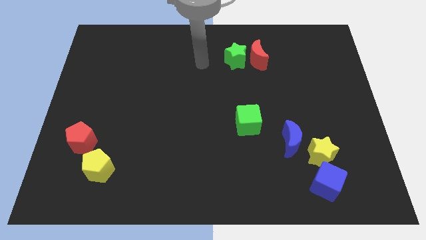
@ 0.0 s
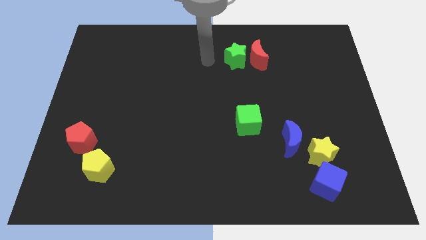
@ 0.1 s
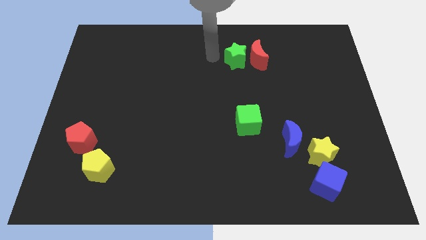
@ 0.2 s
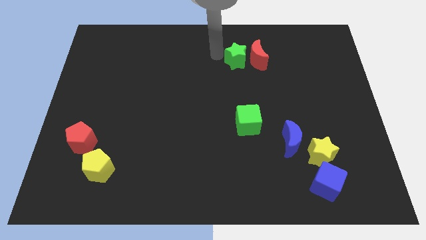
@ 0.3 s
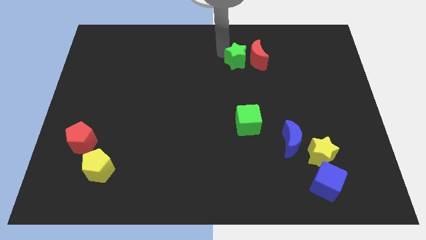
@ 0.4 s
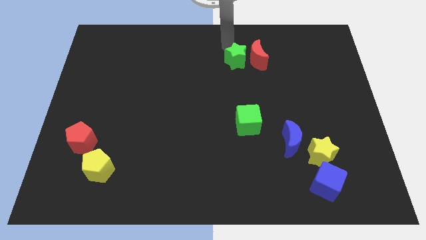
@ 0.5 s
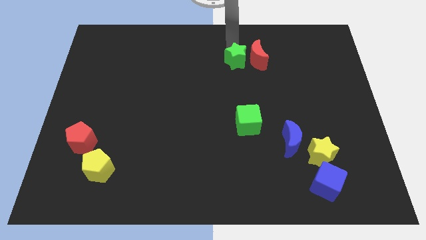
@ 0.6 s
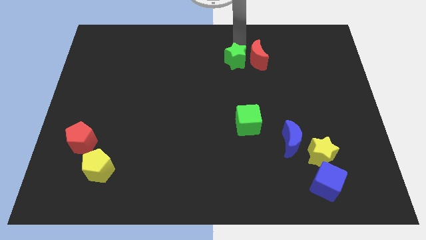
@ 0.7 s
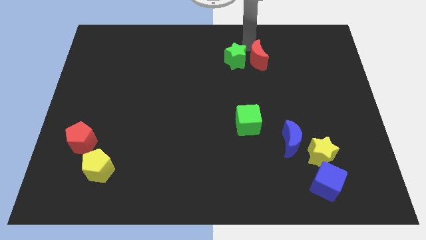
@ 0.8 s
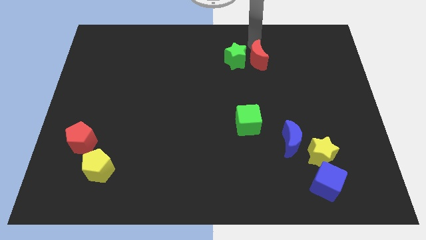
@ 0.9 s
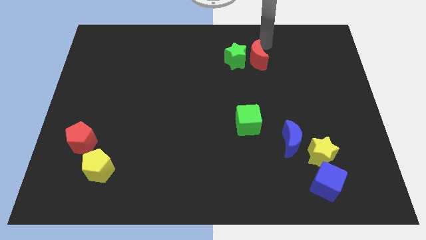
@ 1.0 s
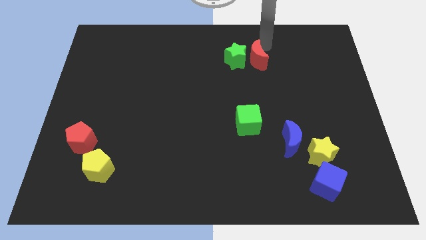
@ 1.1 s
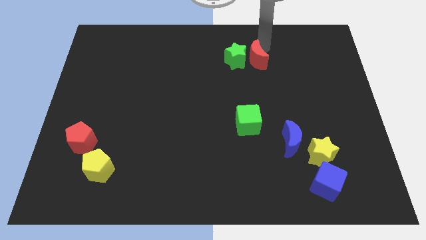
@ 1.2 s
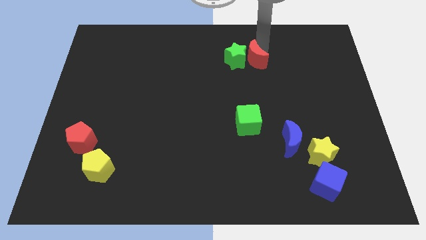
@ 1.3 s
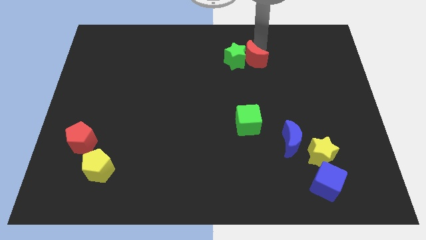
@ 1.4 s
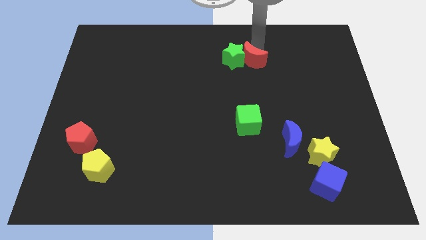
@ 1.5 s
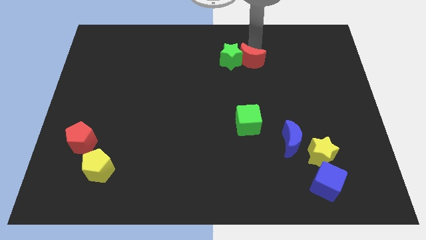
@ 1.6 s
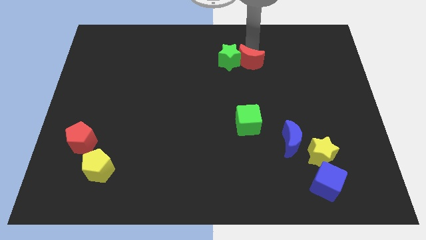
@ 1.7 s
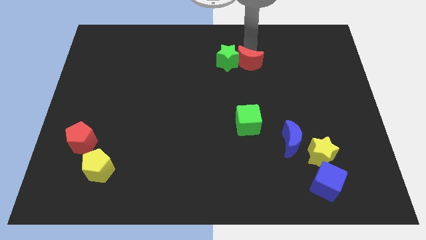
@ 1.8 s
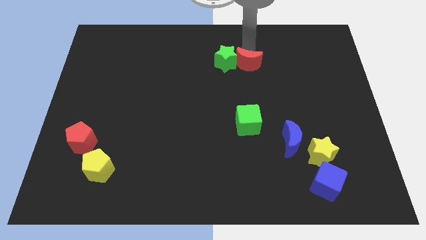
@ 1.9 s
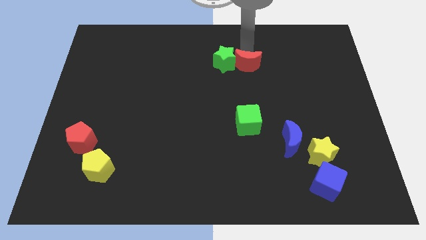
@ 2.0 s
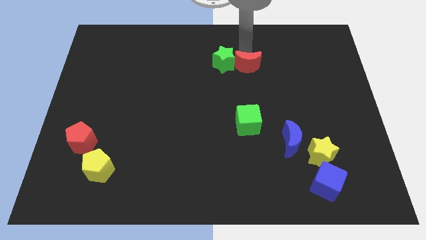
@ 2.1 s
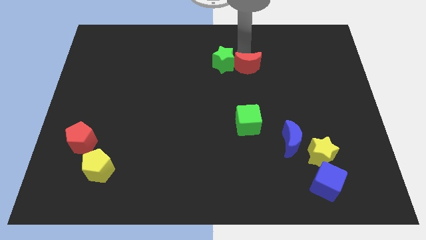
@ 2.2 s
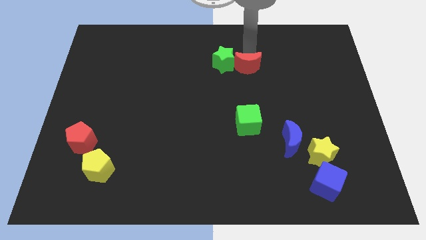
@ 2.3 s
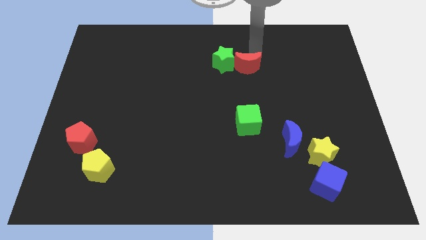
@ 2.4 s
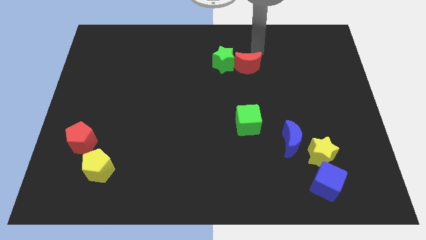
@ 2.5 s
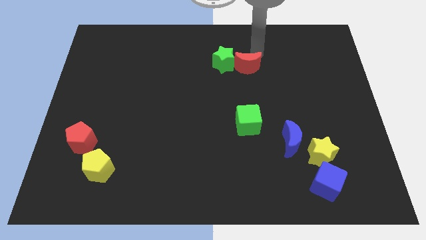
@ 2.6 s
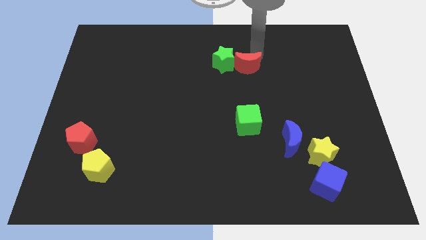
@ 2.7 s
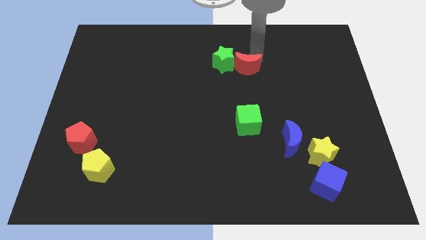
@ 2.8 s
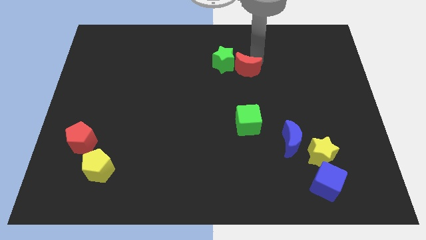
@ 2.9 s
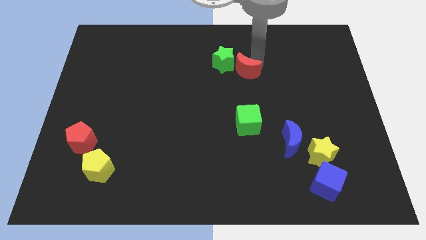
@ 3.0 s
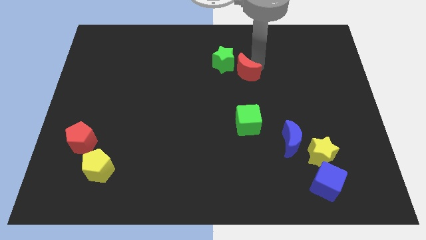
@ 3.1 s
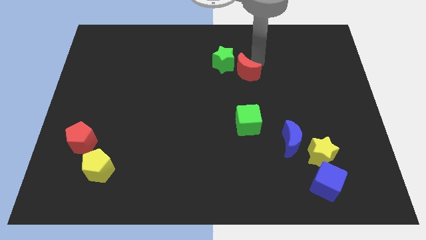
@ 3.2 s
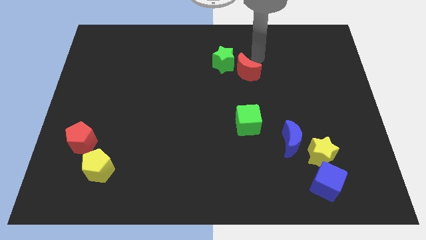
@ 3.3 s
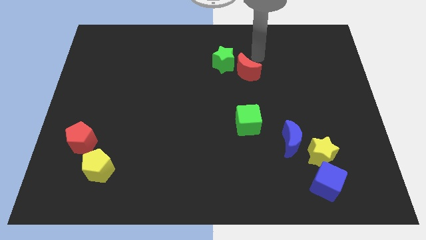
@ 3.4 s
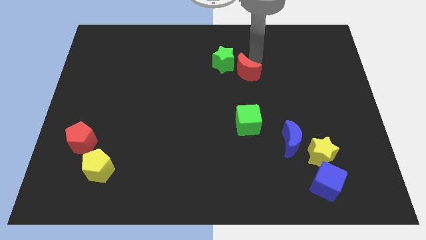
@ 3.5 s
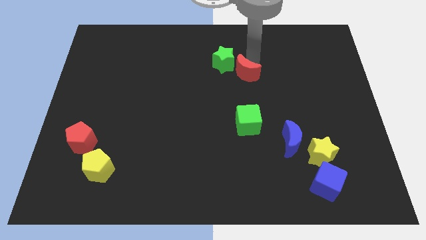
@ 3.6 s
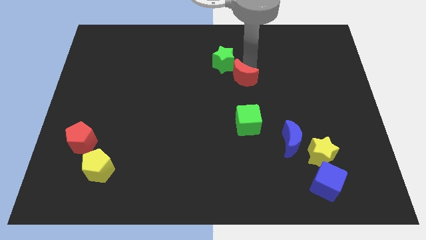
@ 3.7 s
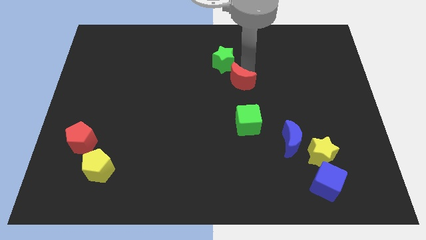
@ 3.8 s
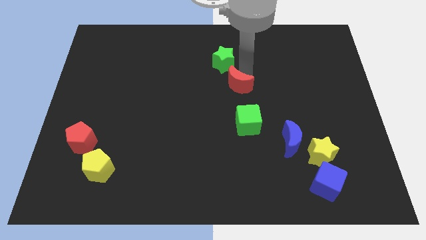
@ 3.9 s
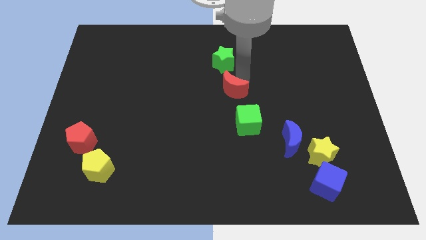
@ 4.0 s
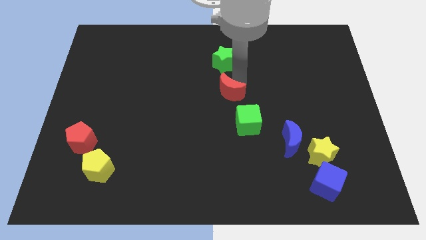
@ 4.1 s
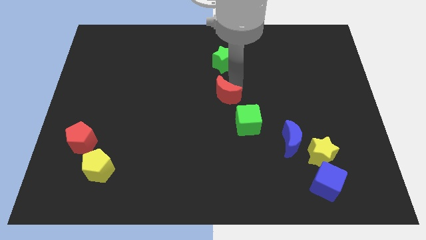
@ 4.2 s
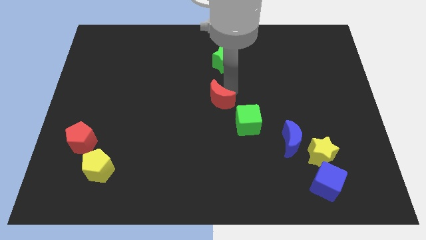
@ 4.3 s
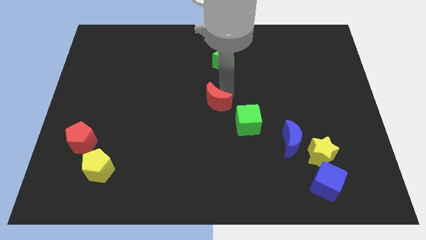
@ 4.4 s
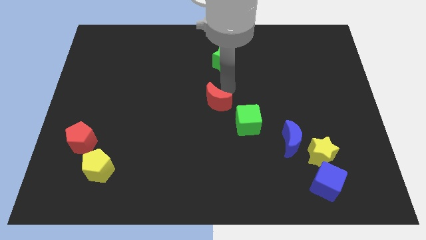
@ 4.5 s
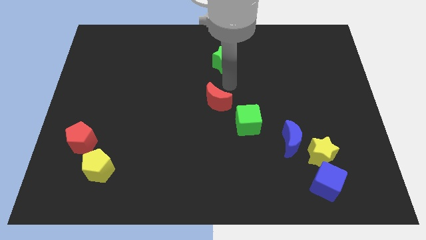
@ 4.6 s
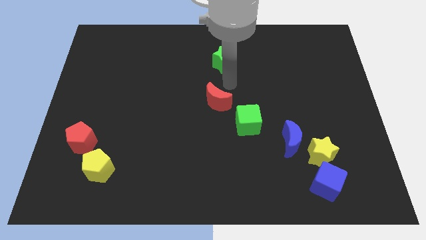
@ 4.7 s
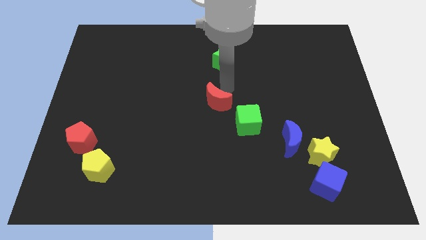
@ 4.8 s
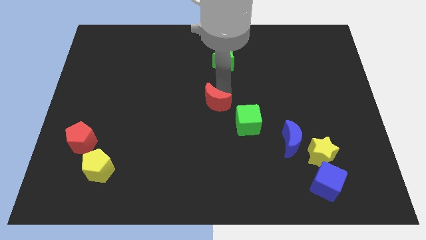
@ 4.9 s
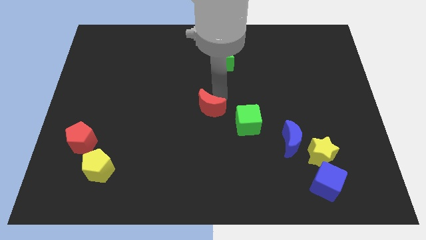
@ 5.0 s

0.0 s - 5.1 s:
put the red moon to the left of the green cube

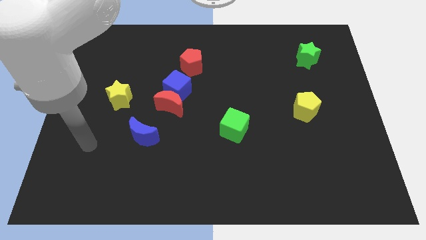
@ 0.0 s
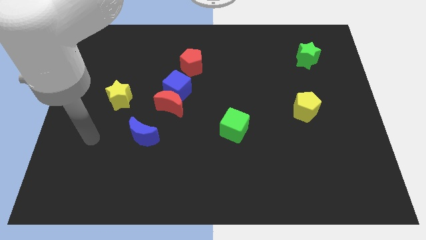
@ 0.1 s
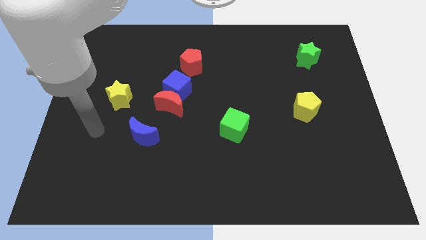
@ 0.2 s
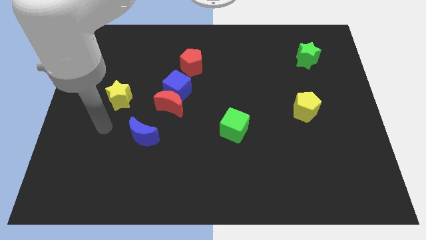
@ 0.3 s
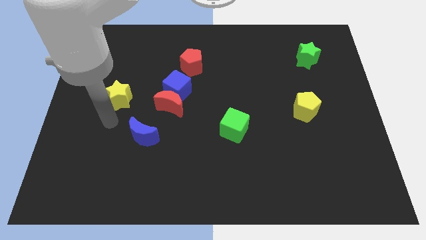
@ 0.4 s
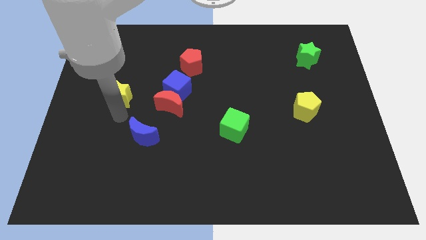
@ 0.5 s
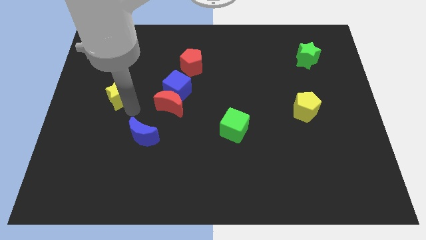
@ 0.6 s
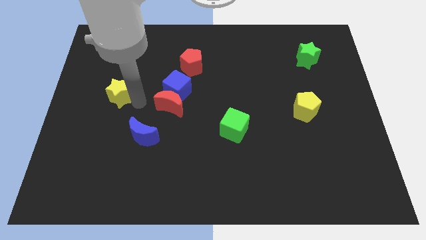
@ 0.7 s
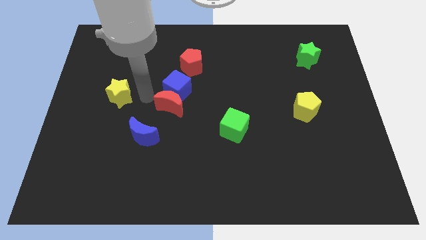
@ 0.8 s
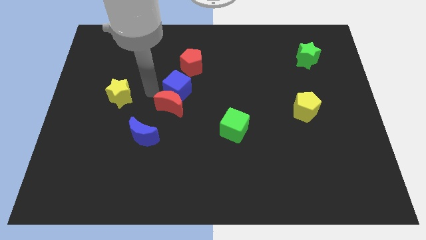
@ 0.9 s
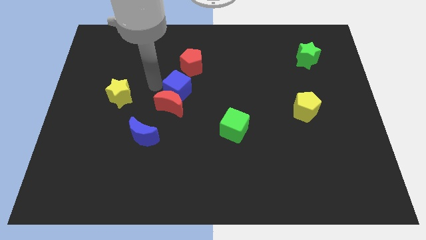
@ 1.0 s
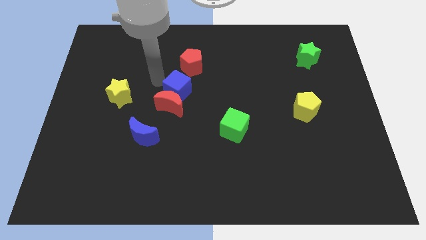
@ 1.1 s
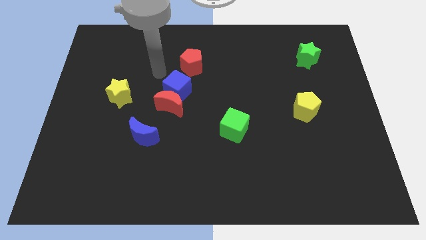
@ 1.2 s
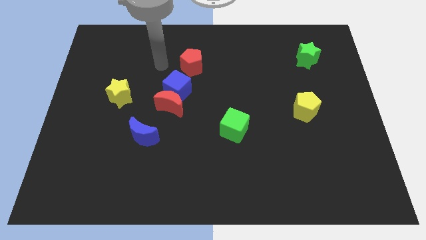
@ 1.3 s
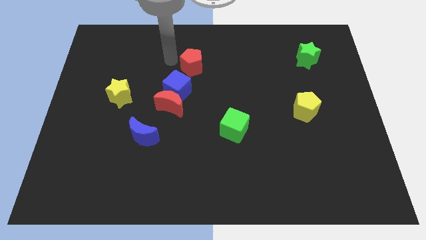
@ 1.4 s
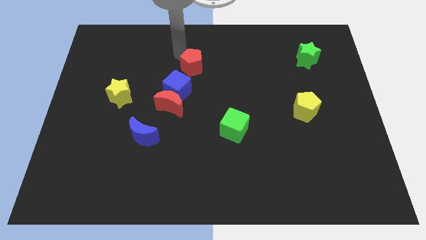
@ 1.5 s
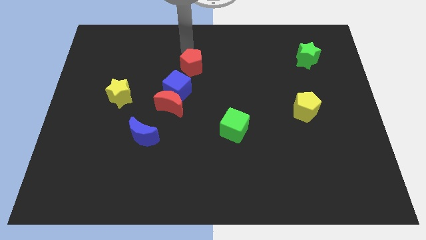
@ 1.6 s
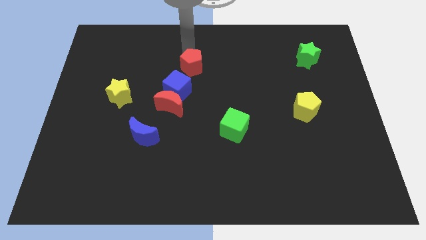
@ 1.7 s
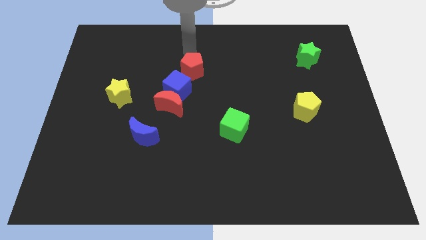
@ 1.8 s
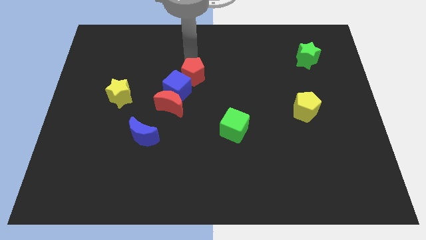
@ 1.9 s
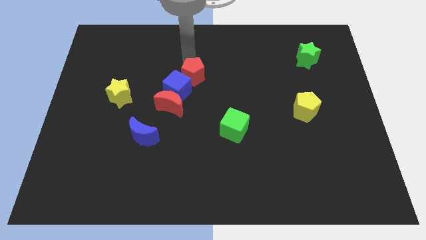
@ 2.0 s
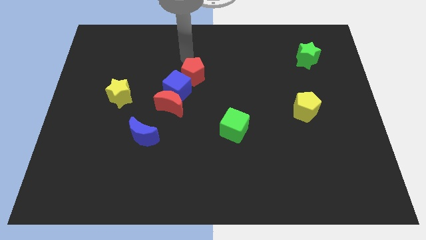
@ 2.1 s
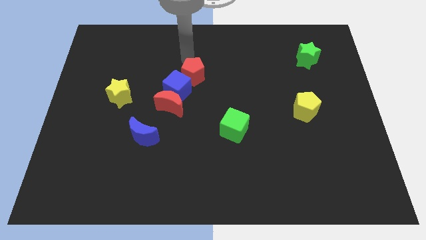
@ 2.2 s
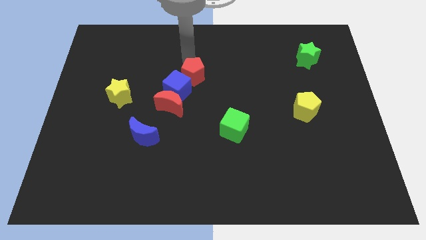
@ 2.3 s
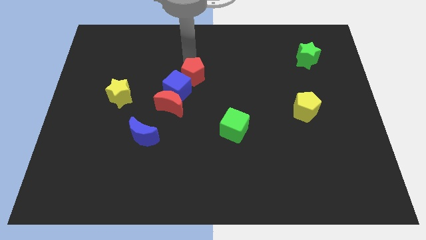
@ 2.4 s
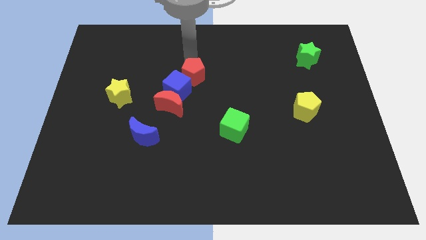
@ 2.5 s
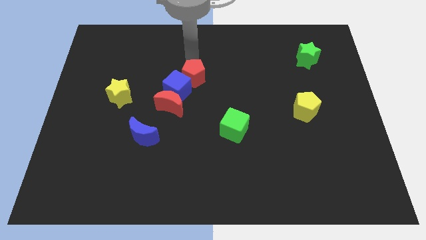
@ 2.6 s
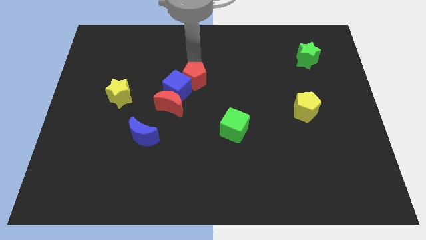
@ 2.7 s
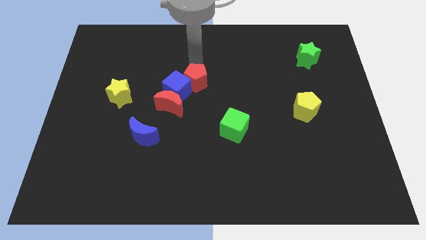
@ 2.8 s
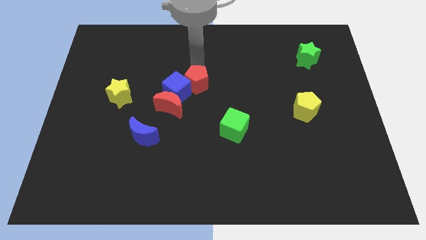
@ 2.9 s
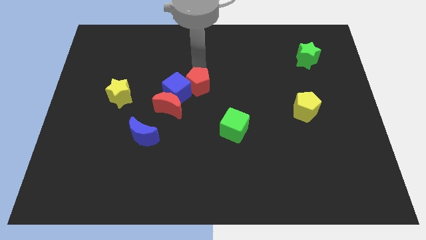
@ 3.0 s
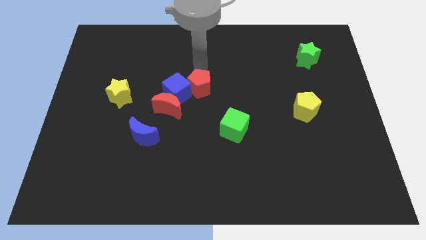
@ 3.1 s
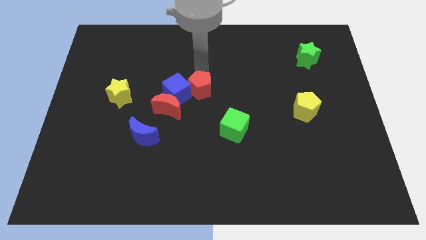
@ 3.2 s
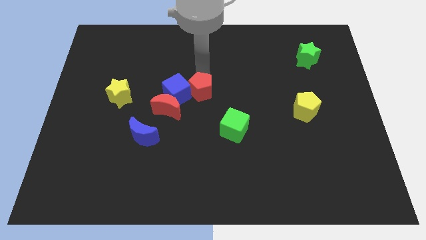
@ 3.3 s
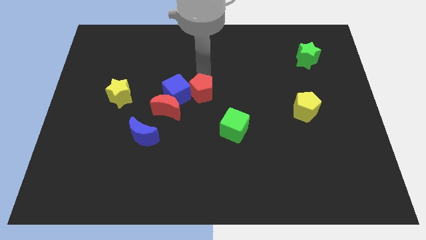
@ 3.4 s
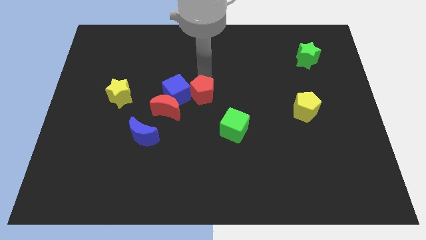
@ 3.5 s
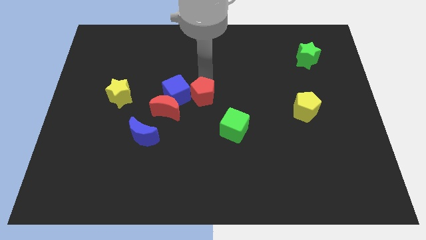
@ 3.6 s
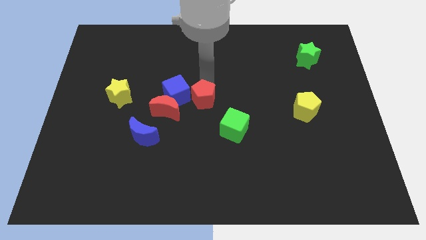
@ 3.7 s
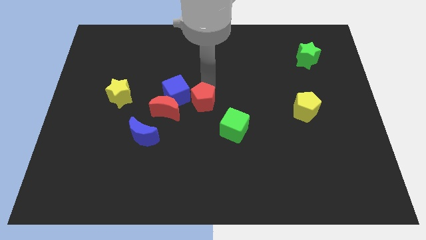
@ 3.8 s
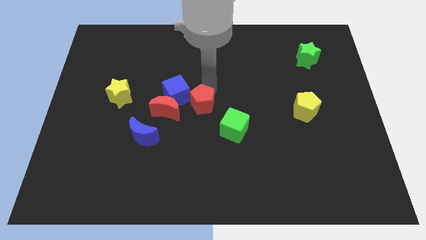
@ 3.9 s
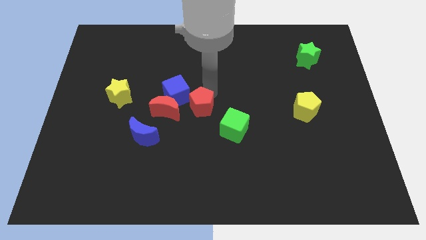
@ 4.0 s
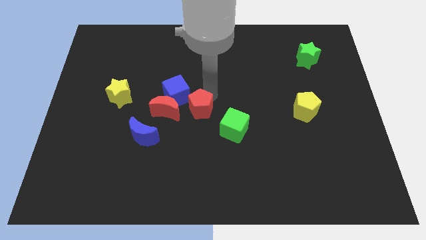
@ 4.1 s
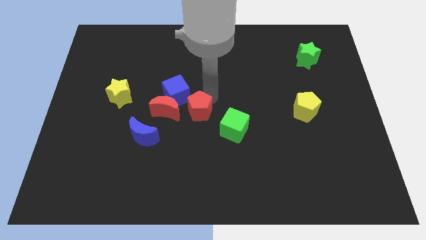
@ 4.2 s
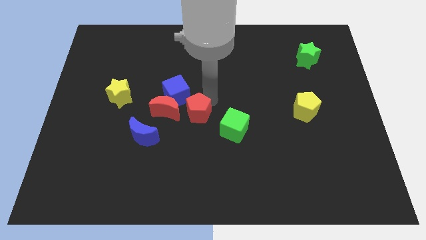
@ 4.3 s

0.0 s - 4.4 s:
push the red pentagon left of the green cube
